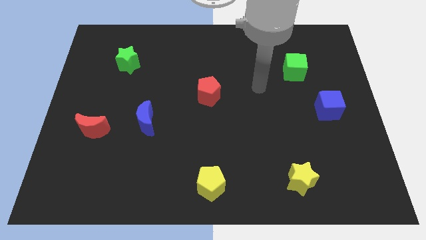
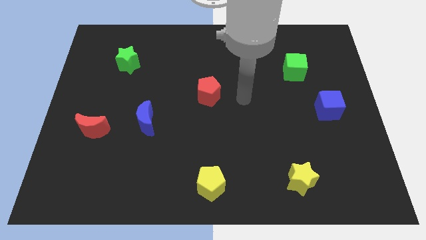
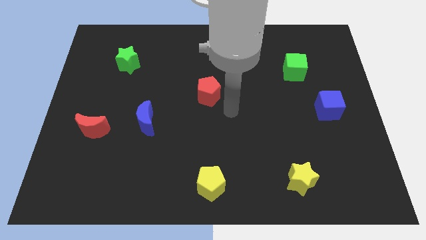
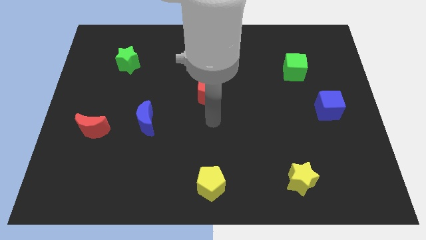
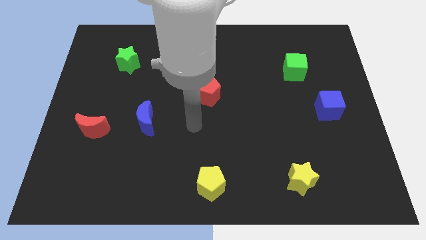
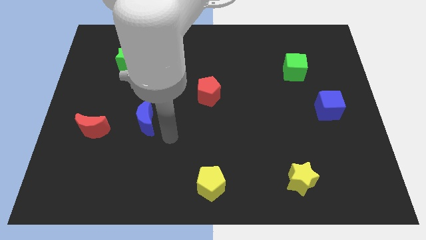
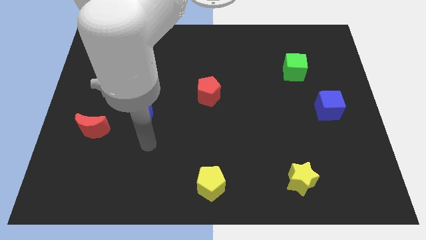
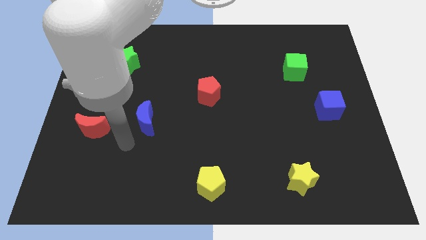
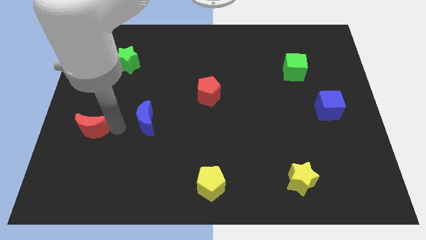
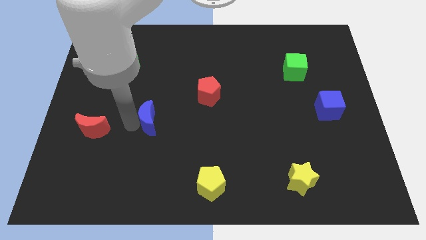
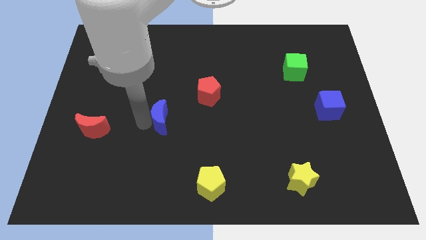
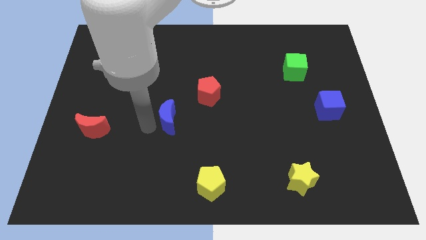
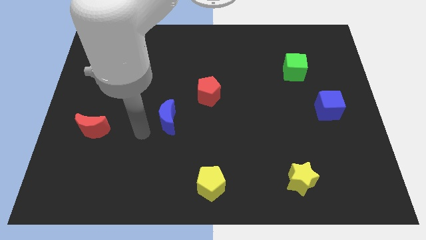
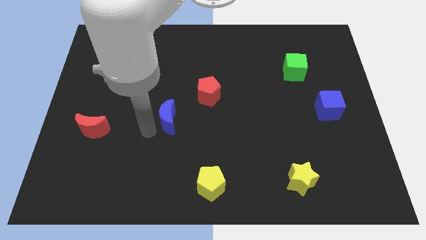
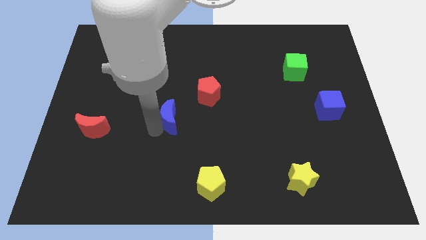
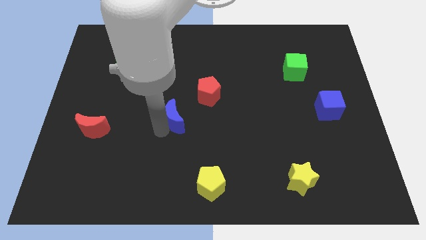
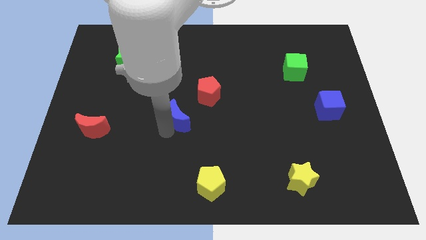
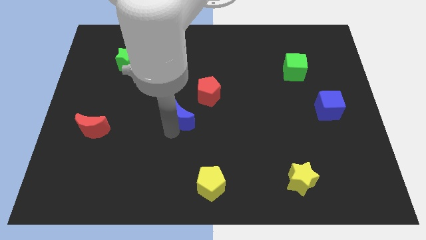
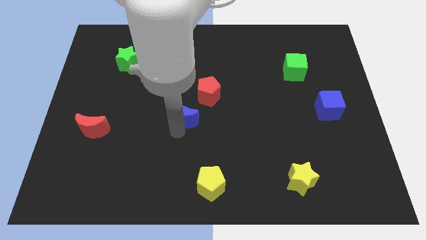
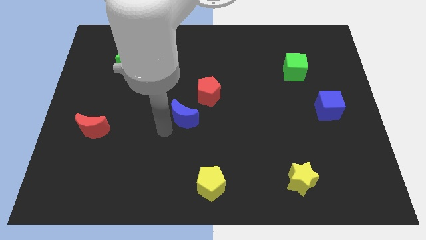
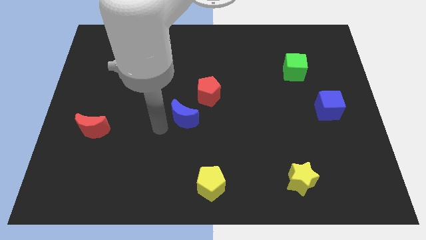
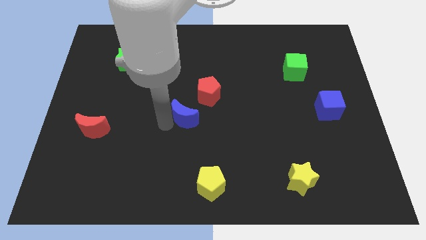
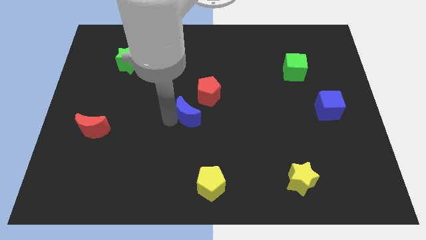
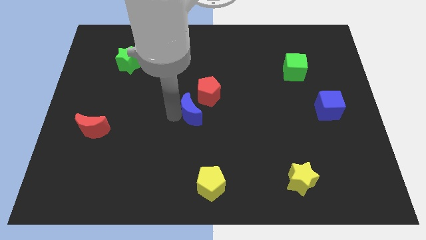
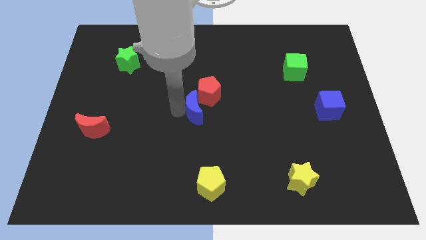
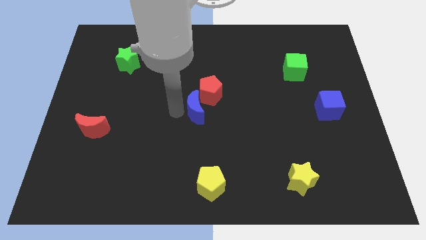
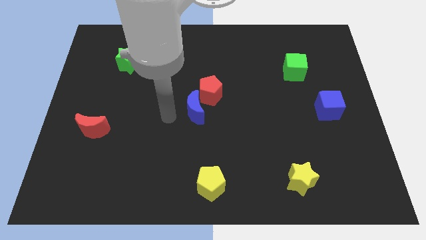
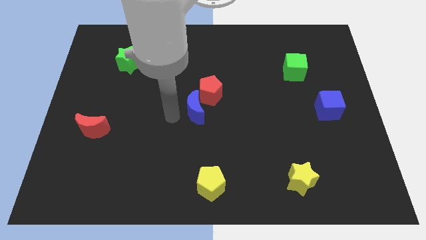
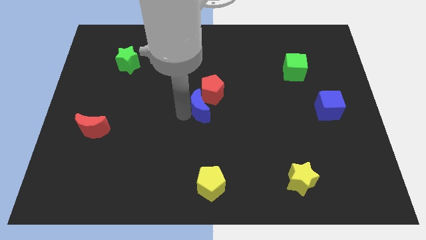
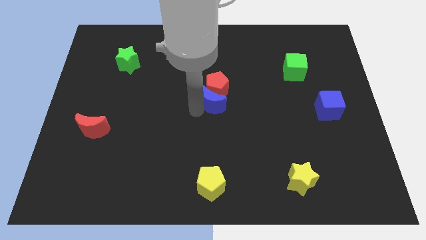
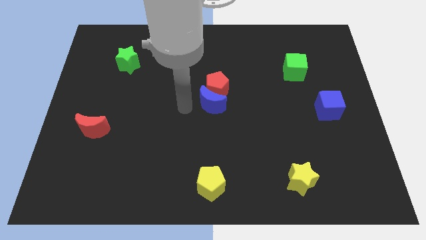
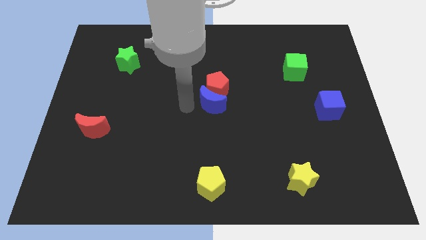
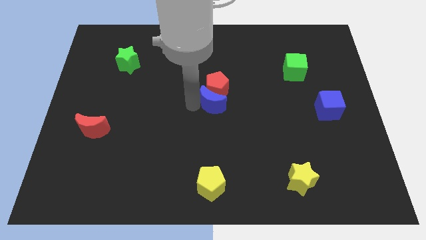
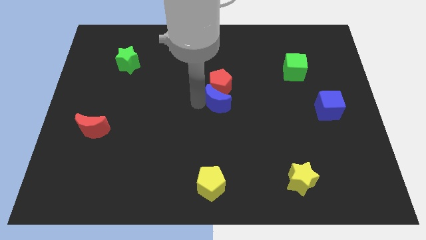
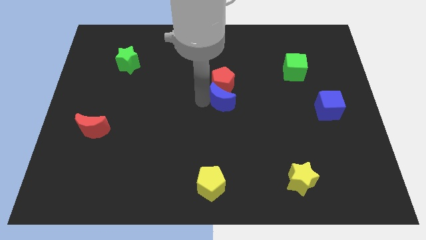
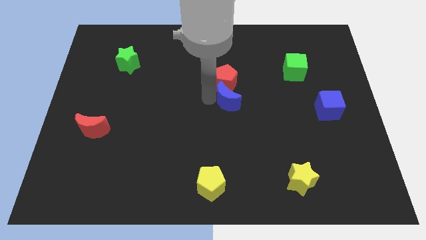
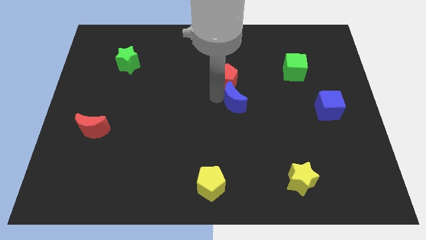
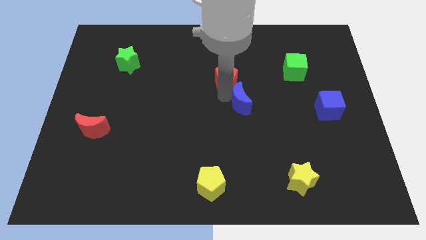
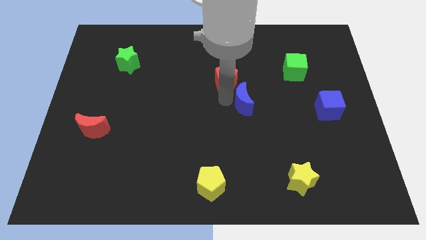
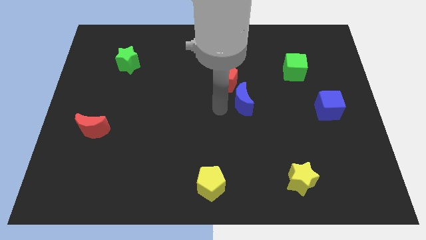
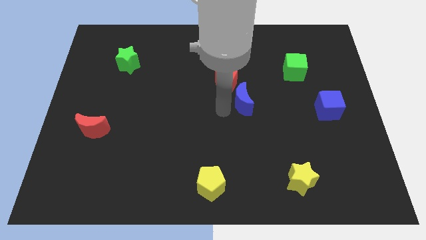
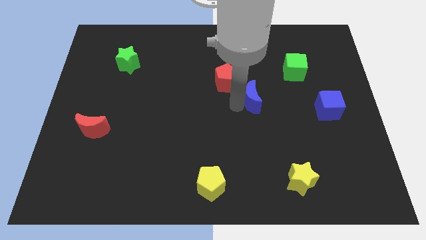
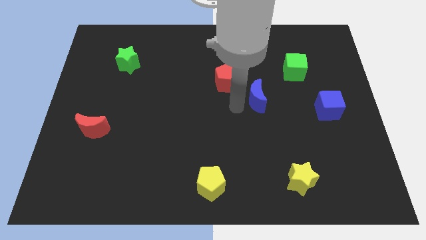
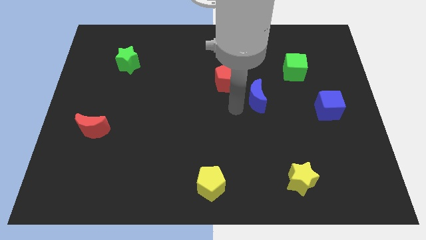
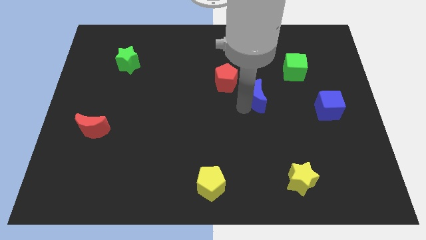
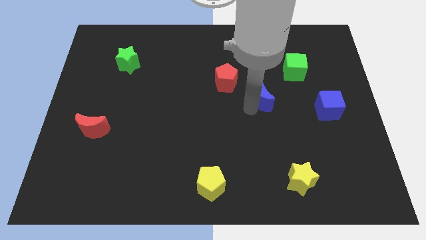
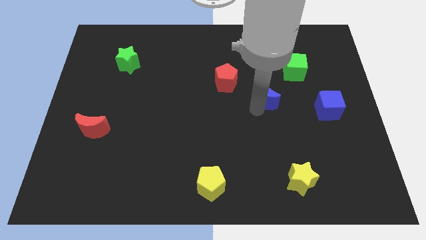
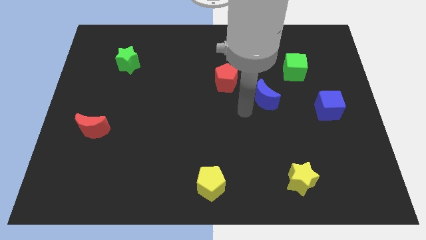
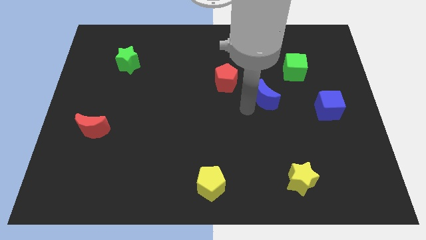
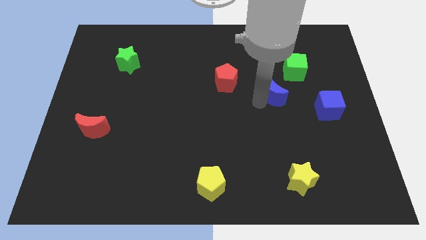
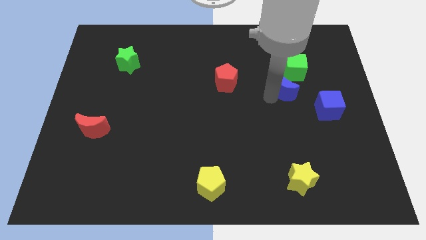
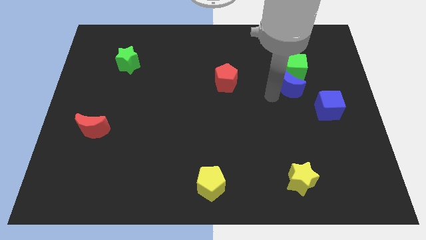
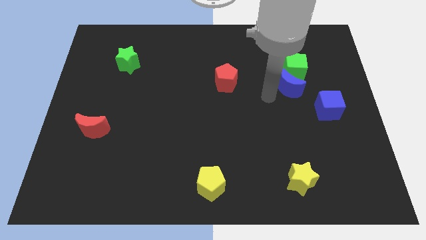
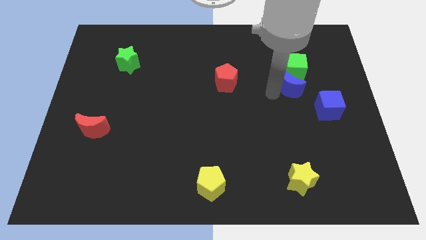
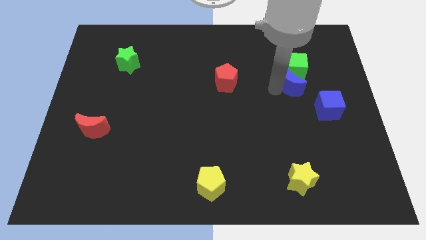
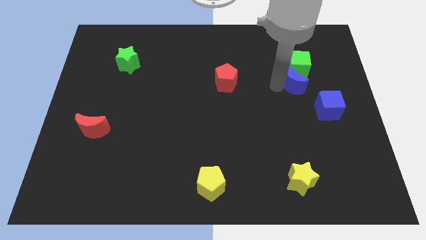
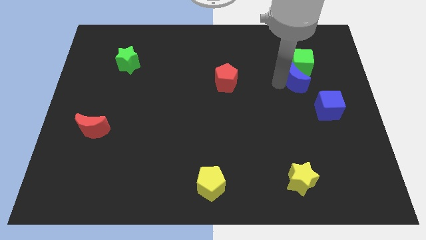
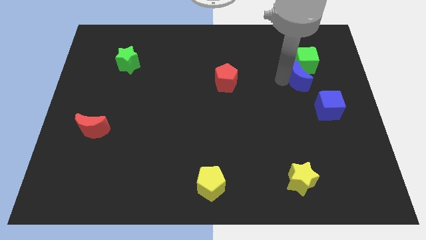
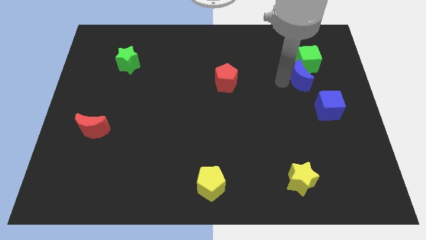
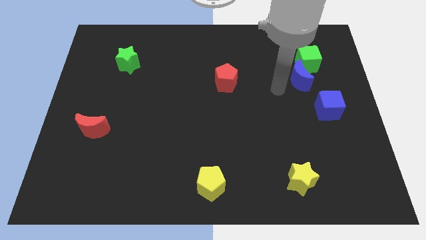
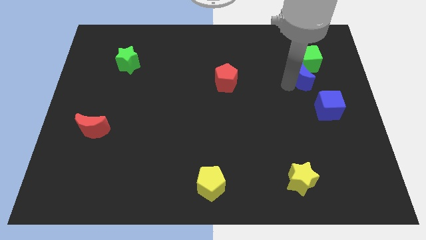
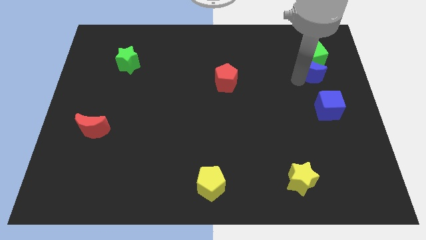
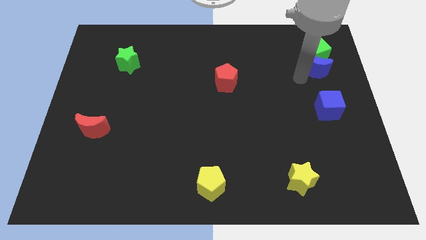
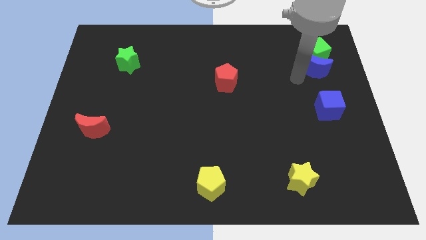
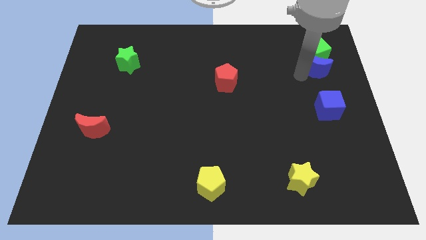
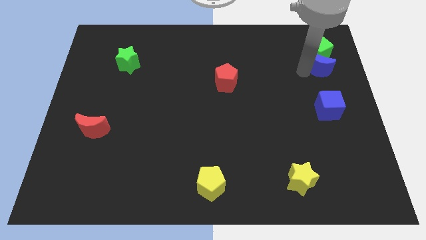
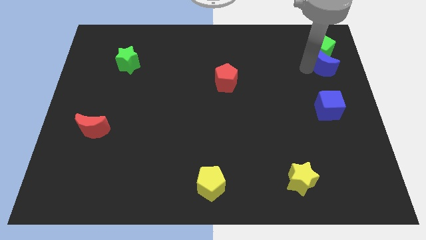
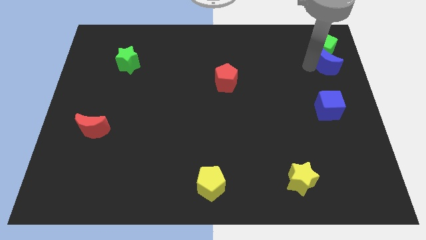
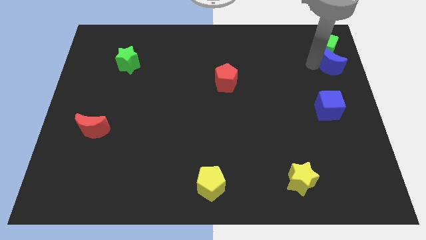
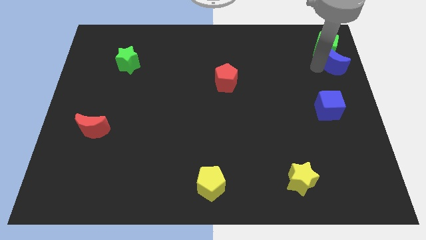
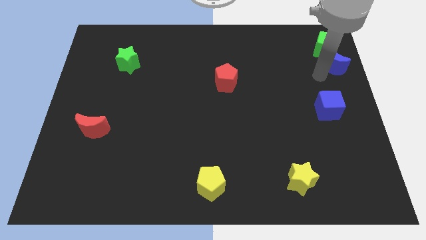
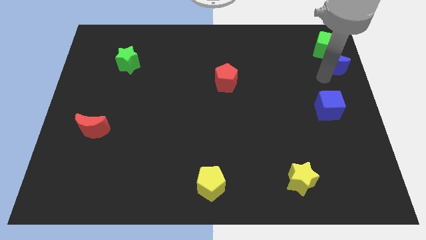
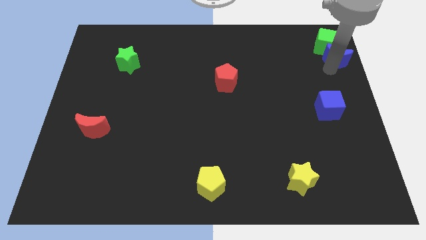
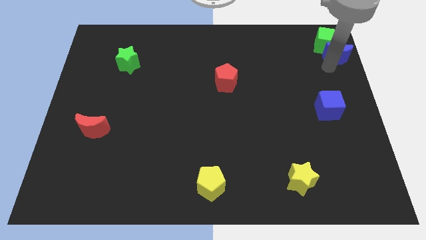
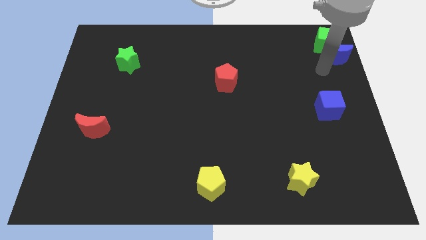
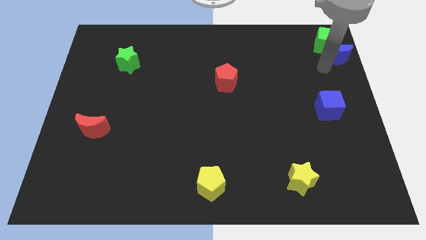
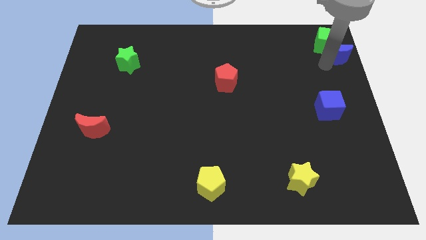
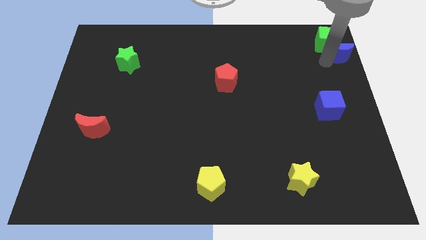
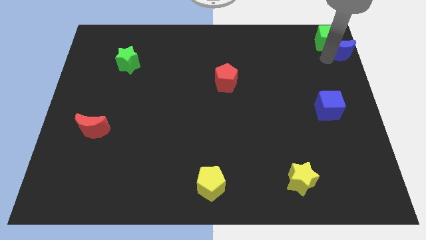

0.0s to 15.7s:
slide the blue moon to the top right
